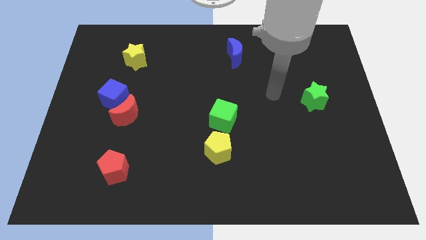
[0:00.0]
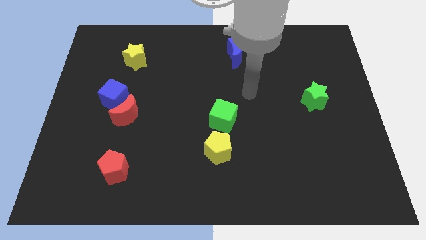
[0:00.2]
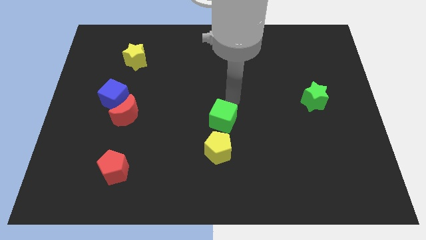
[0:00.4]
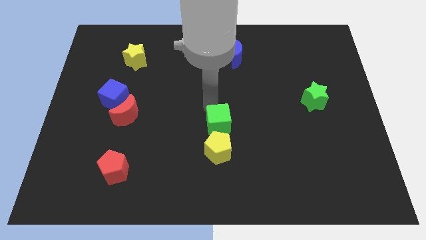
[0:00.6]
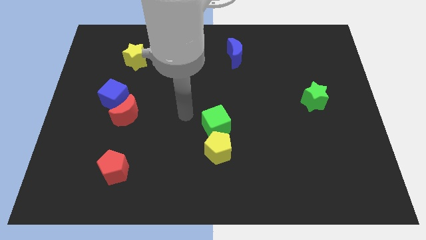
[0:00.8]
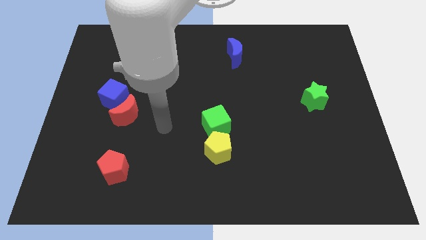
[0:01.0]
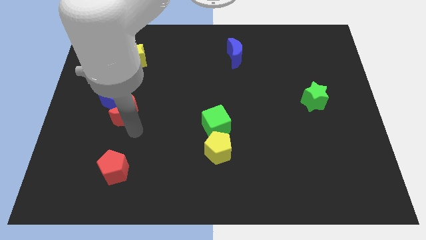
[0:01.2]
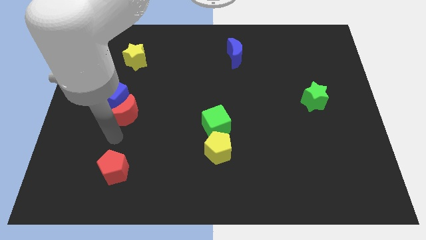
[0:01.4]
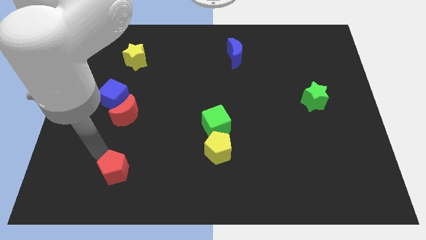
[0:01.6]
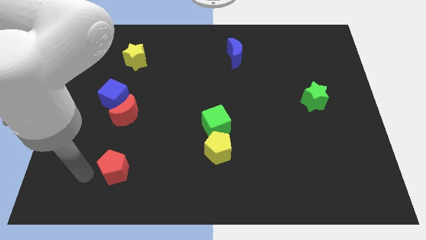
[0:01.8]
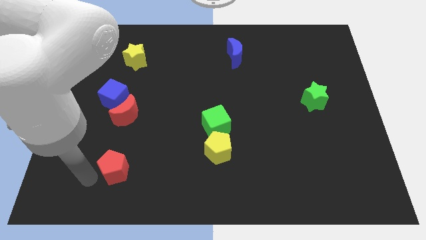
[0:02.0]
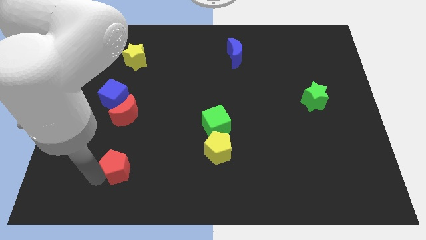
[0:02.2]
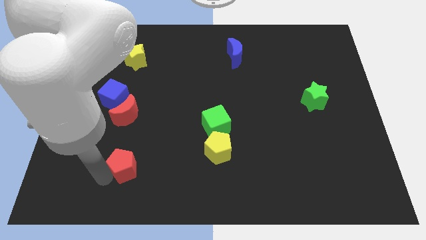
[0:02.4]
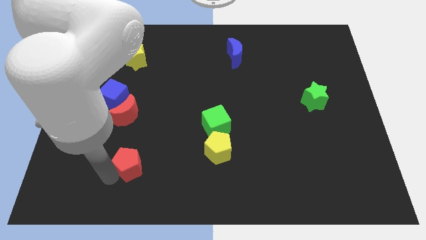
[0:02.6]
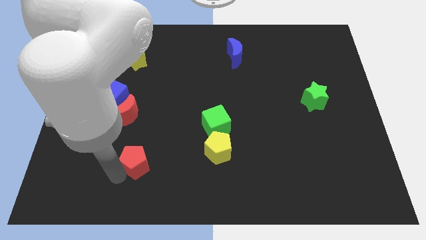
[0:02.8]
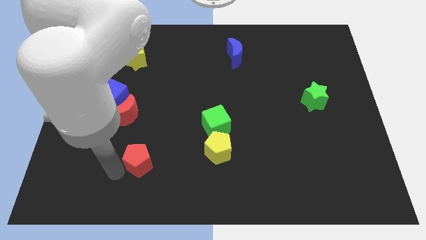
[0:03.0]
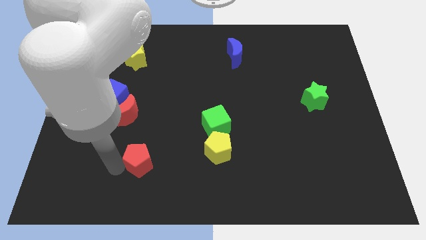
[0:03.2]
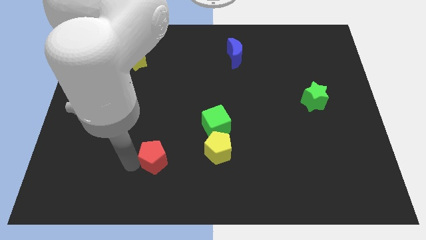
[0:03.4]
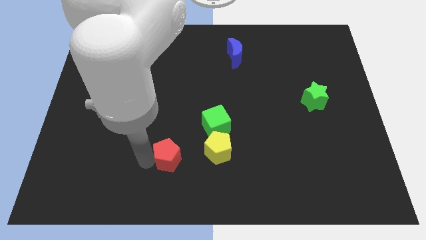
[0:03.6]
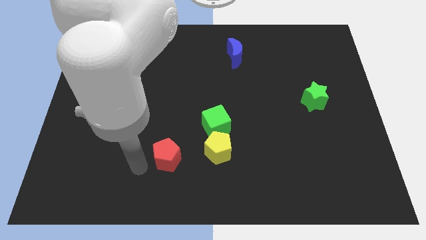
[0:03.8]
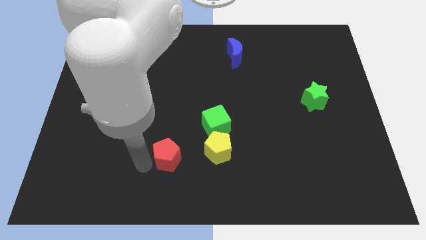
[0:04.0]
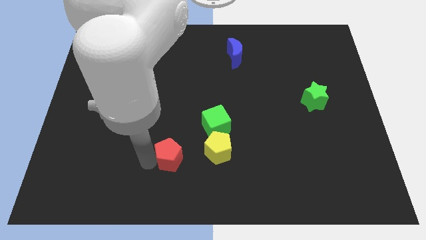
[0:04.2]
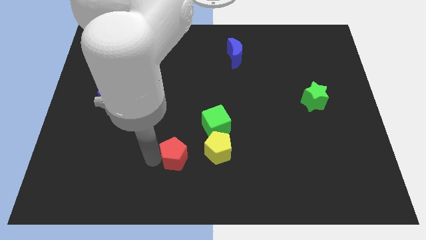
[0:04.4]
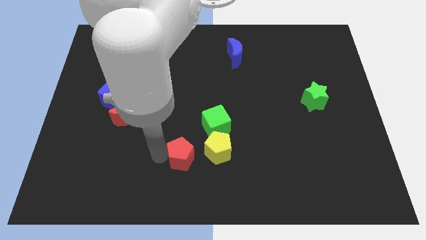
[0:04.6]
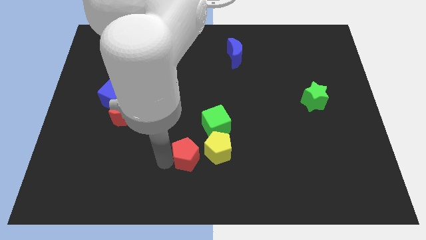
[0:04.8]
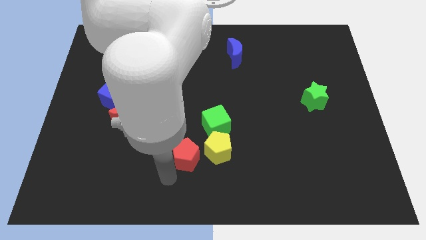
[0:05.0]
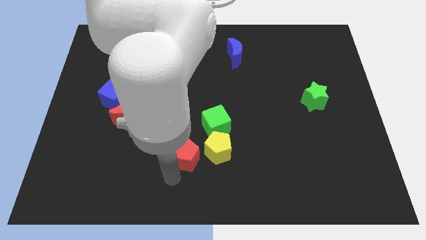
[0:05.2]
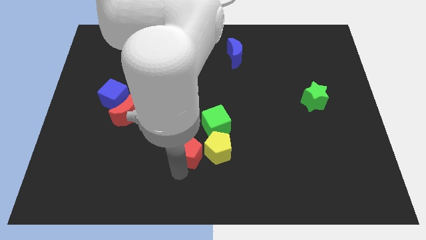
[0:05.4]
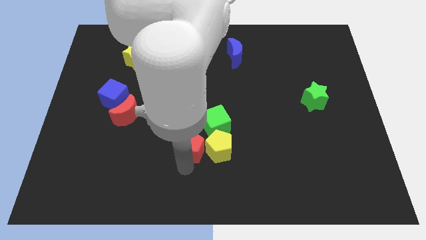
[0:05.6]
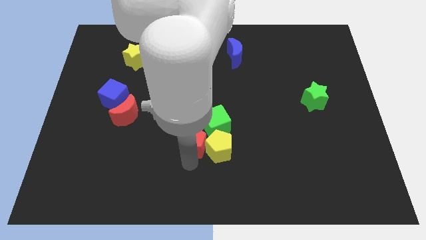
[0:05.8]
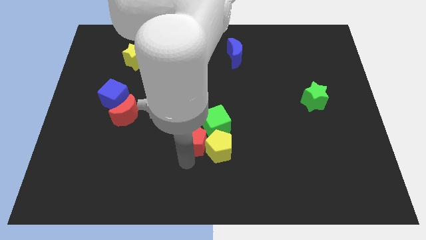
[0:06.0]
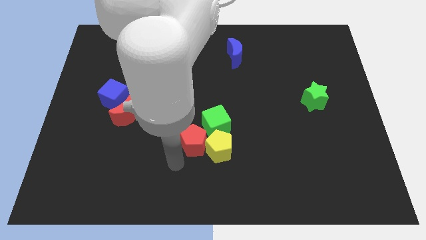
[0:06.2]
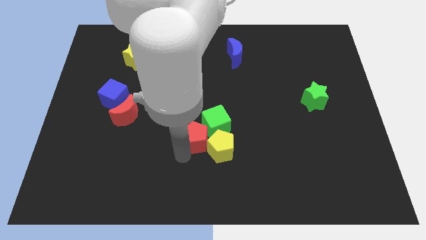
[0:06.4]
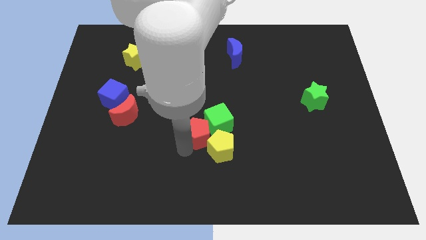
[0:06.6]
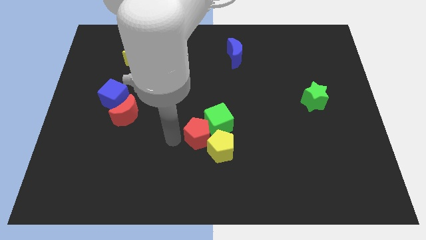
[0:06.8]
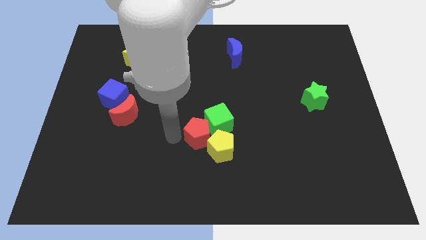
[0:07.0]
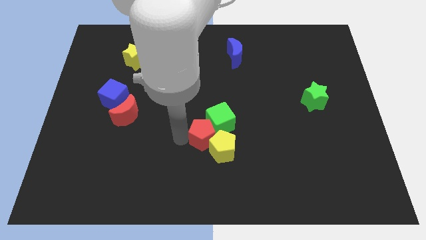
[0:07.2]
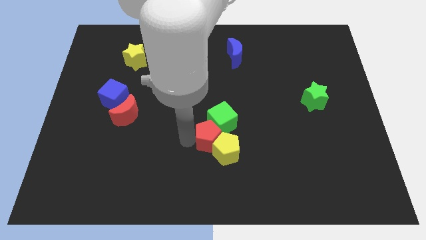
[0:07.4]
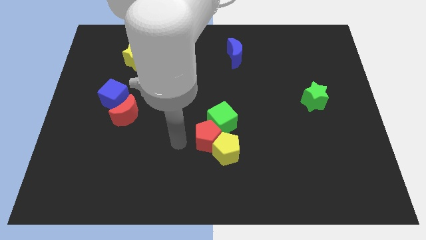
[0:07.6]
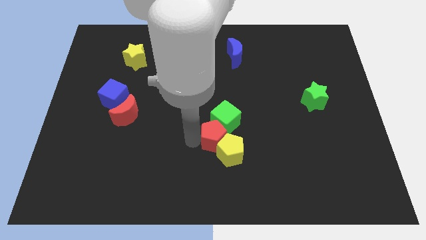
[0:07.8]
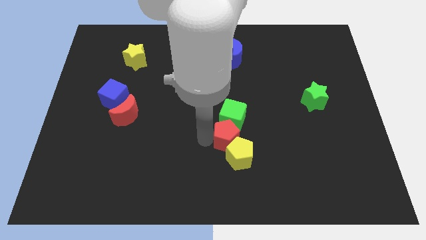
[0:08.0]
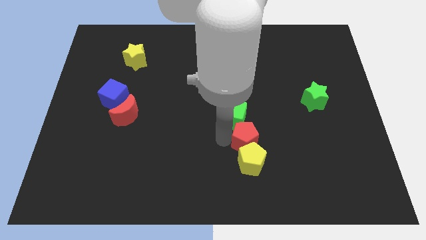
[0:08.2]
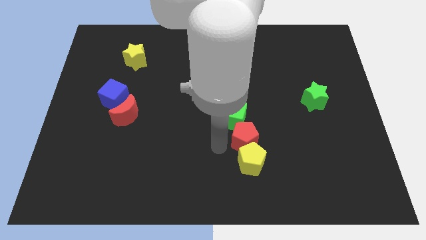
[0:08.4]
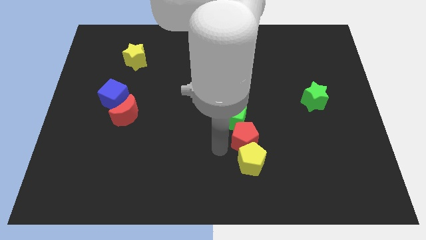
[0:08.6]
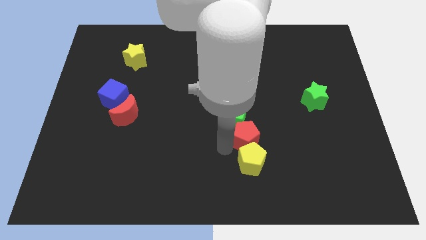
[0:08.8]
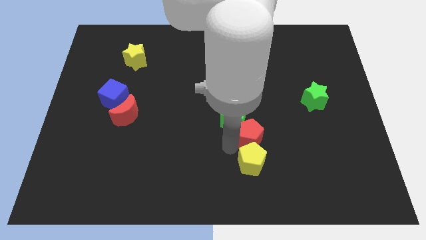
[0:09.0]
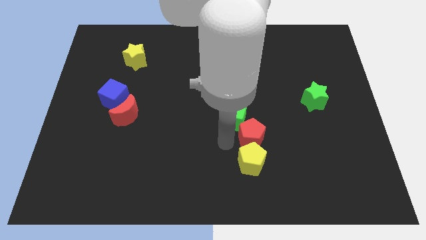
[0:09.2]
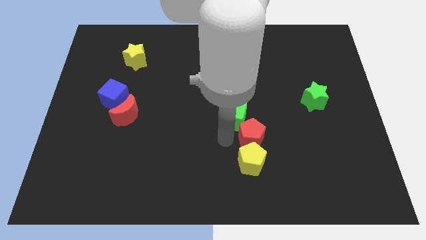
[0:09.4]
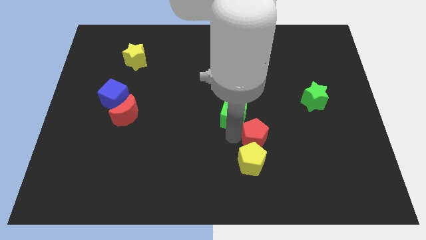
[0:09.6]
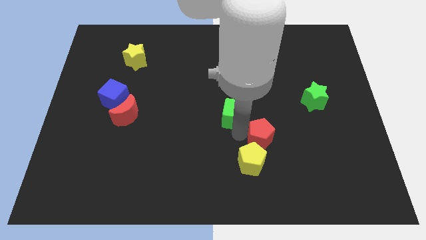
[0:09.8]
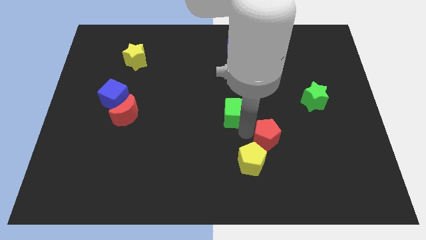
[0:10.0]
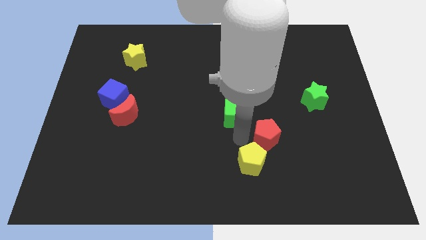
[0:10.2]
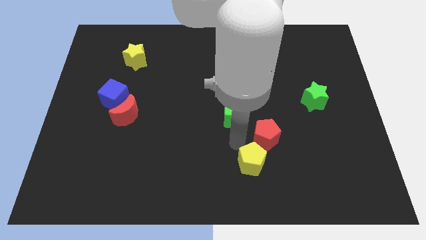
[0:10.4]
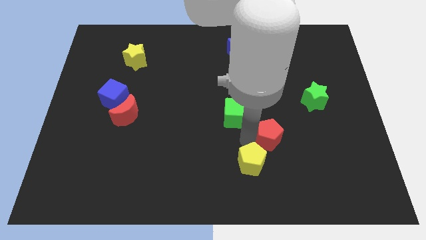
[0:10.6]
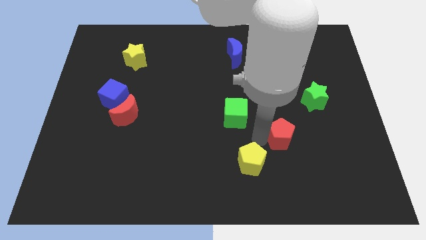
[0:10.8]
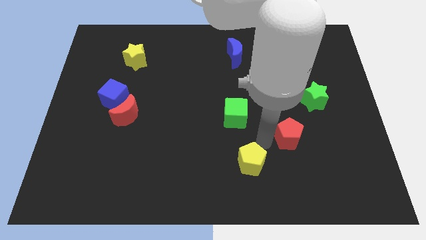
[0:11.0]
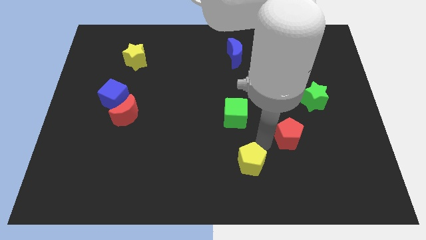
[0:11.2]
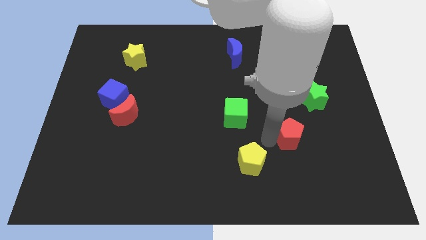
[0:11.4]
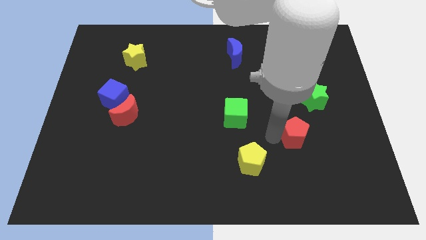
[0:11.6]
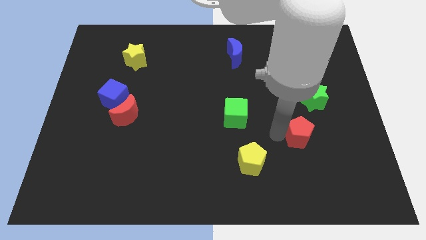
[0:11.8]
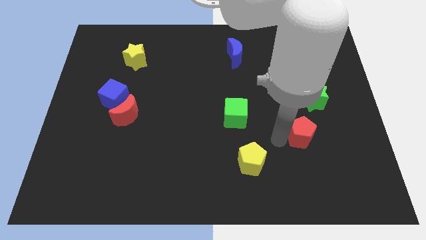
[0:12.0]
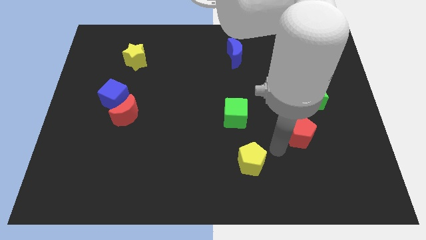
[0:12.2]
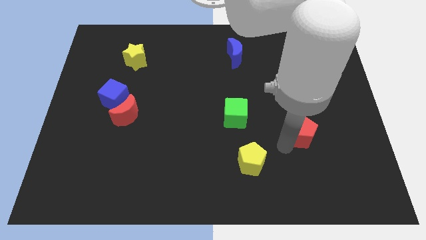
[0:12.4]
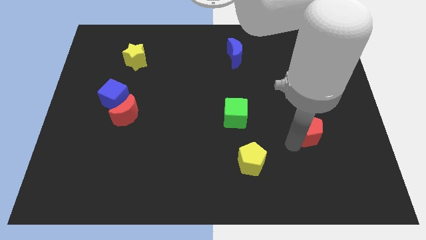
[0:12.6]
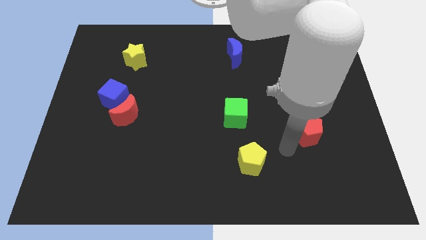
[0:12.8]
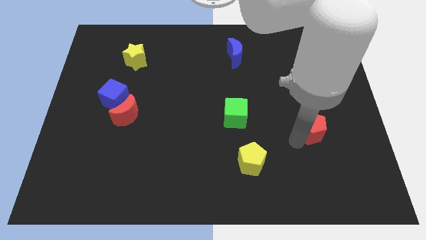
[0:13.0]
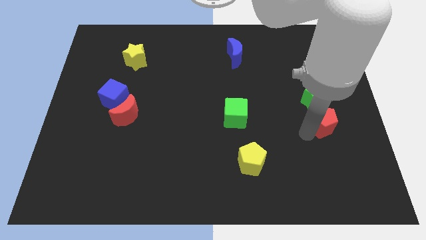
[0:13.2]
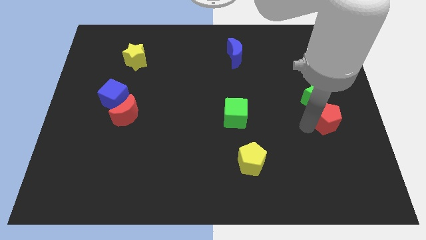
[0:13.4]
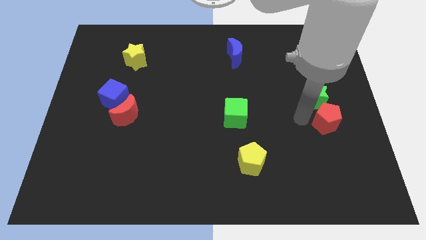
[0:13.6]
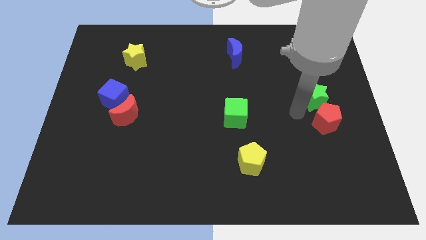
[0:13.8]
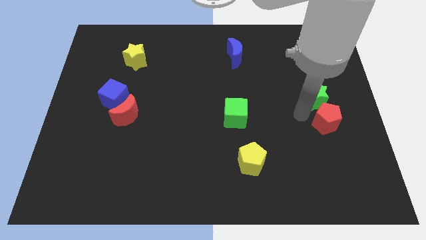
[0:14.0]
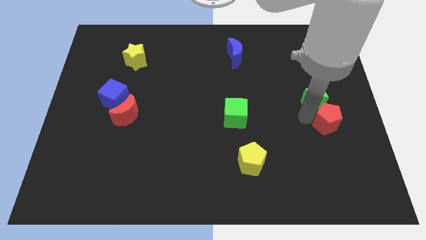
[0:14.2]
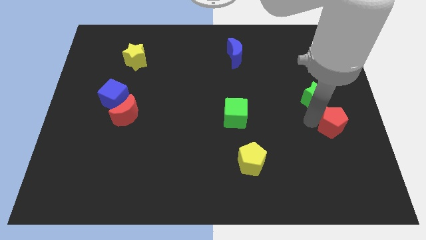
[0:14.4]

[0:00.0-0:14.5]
slide the red pentagon to the right side
